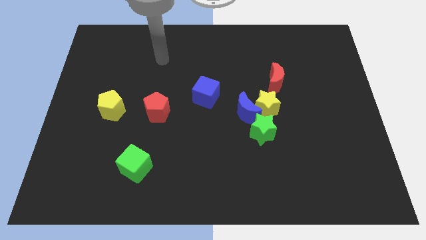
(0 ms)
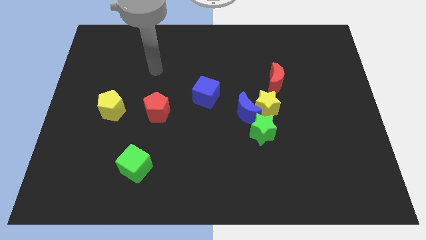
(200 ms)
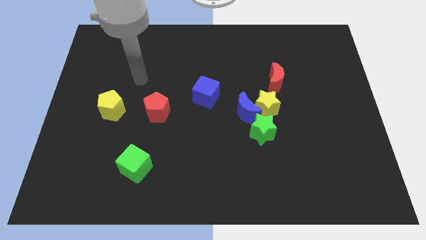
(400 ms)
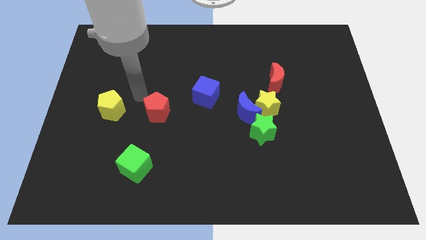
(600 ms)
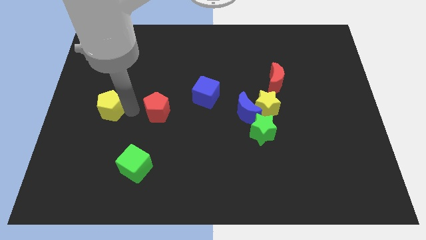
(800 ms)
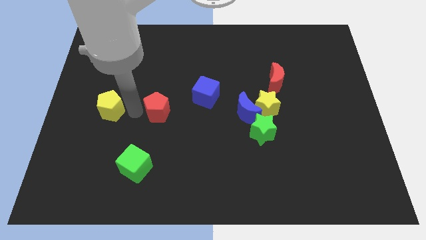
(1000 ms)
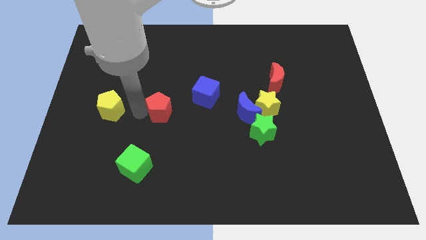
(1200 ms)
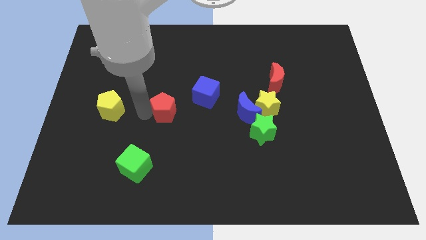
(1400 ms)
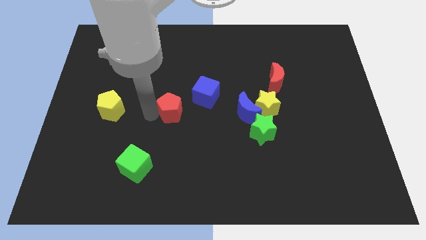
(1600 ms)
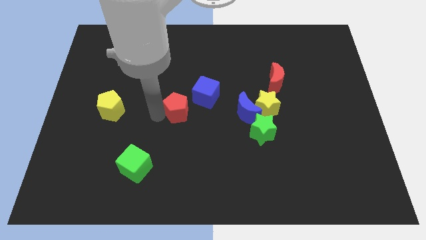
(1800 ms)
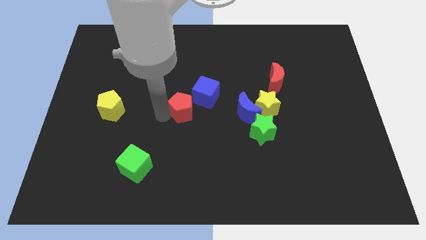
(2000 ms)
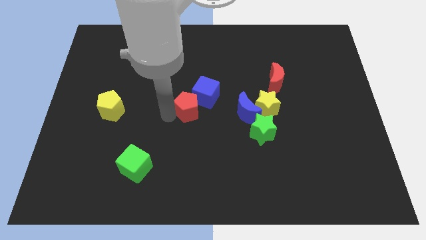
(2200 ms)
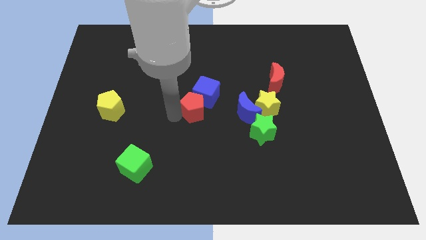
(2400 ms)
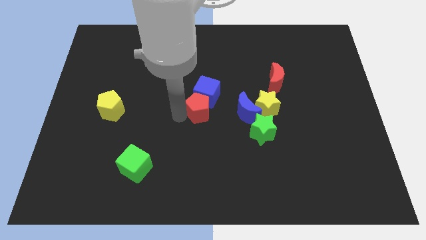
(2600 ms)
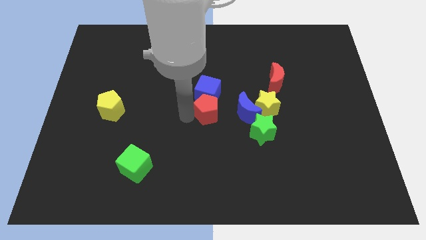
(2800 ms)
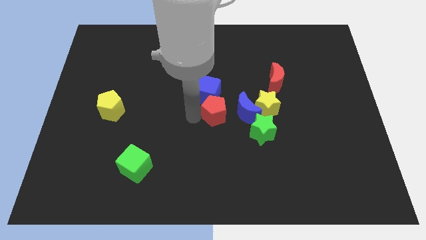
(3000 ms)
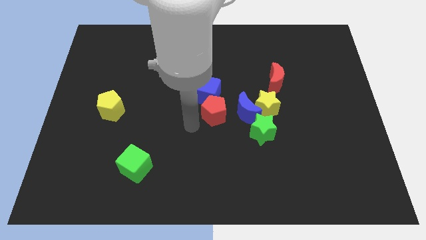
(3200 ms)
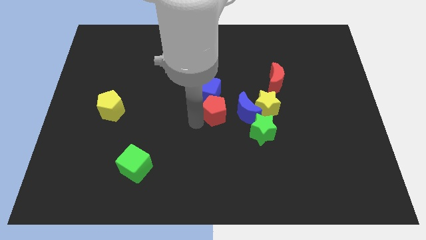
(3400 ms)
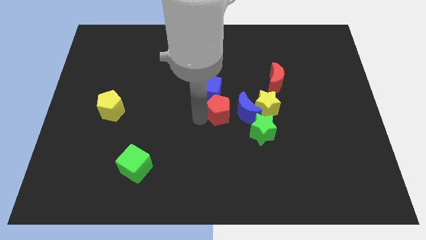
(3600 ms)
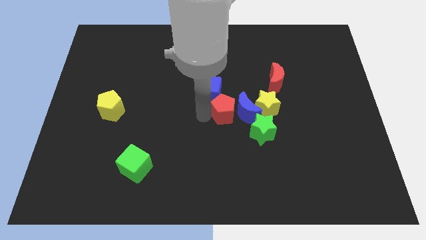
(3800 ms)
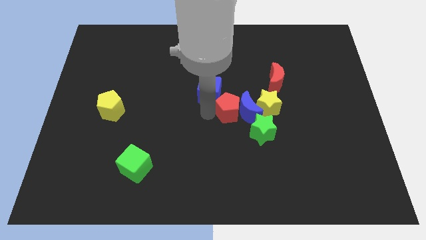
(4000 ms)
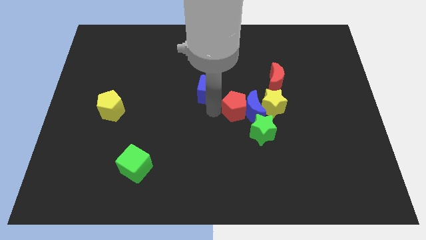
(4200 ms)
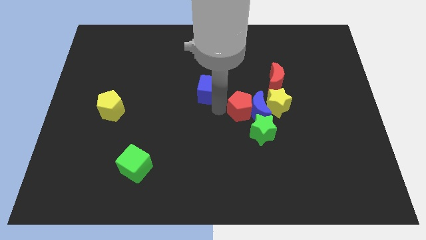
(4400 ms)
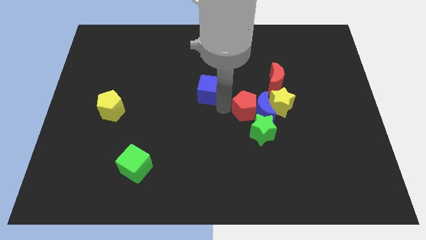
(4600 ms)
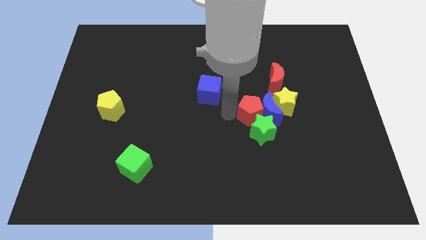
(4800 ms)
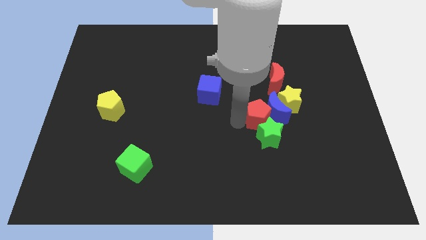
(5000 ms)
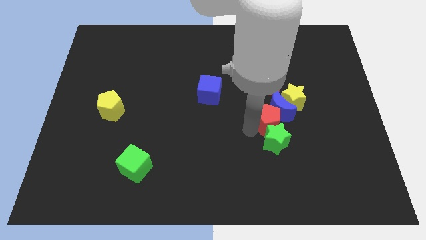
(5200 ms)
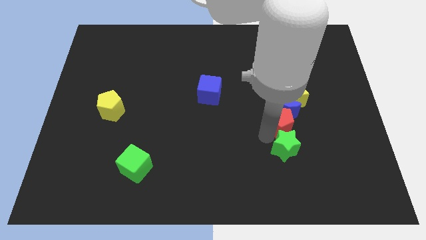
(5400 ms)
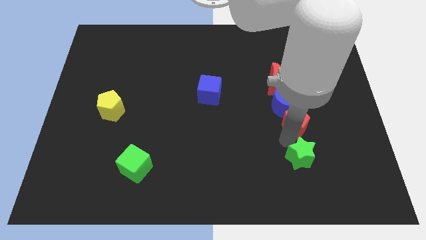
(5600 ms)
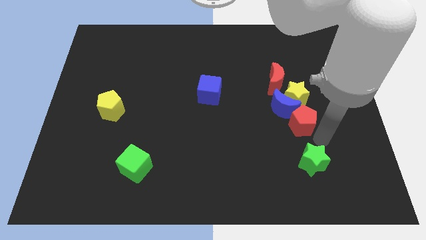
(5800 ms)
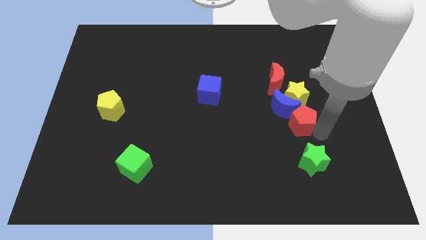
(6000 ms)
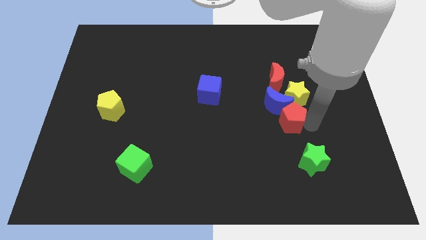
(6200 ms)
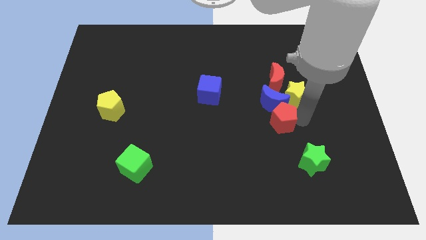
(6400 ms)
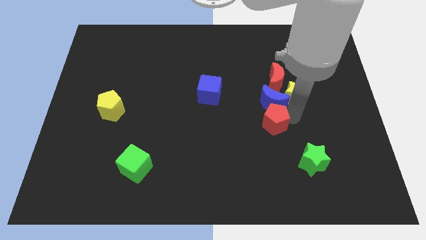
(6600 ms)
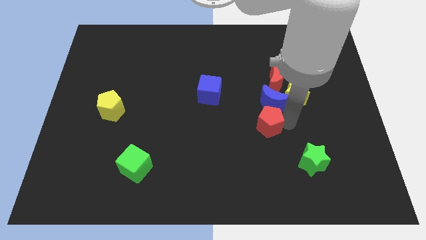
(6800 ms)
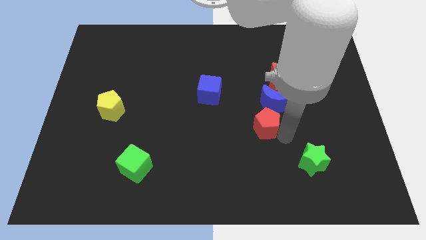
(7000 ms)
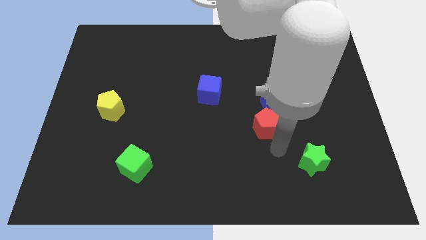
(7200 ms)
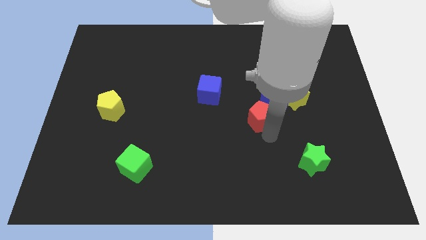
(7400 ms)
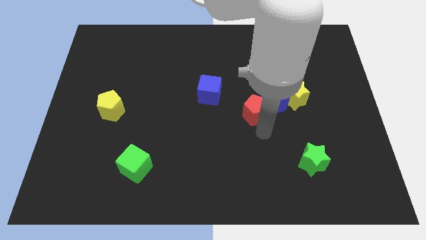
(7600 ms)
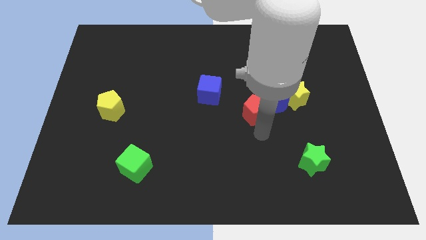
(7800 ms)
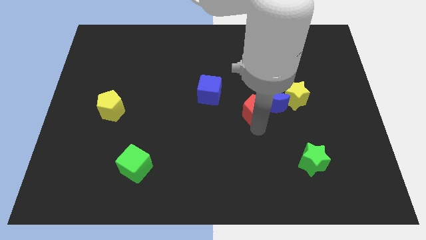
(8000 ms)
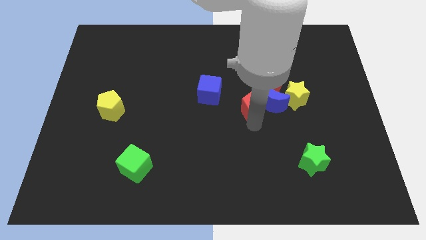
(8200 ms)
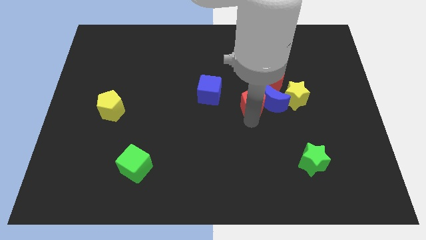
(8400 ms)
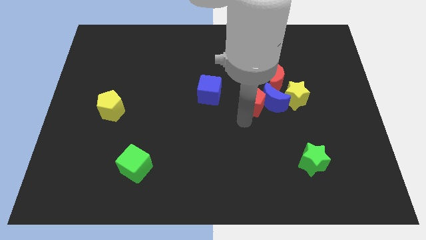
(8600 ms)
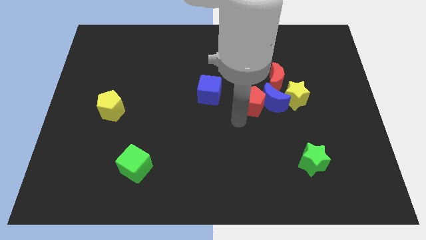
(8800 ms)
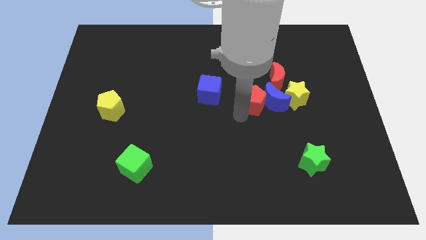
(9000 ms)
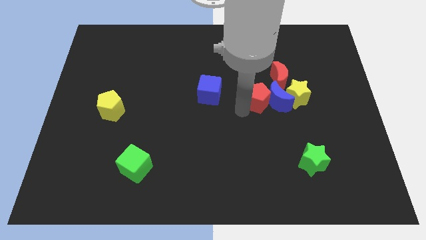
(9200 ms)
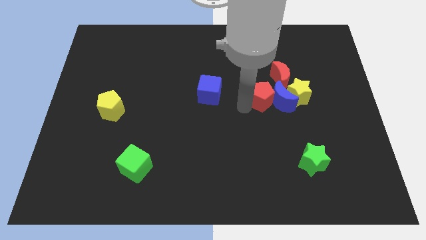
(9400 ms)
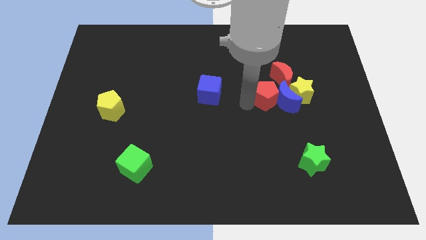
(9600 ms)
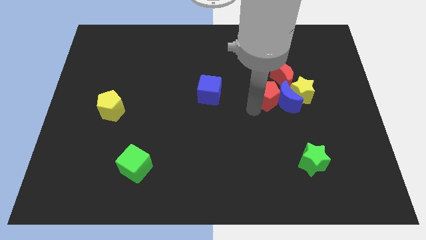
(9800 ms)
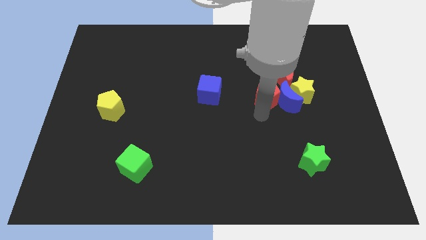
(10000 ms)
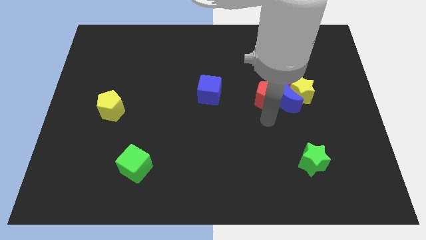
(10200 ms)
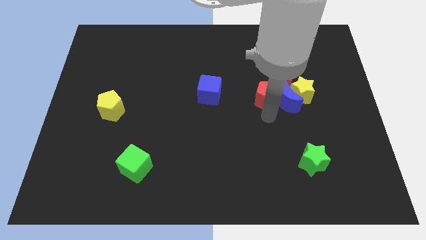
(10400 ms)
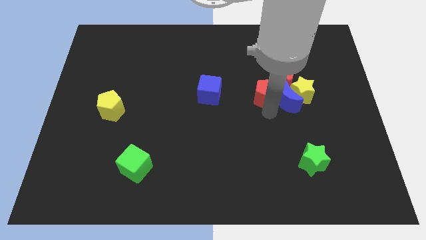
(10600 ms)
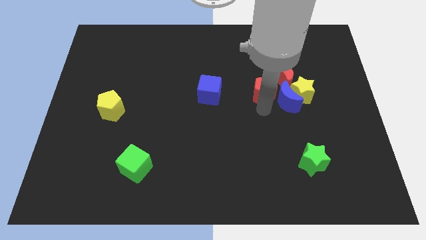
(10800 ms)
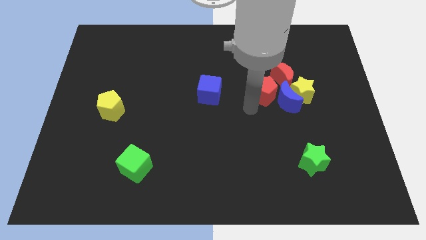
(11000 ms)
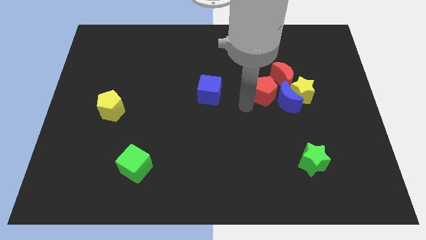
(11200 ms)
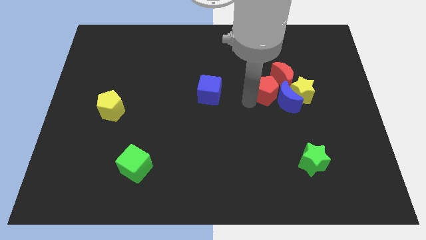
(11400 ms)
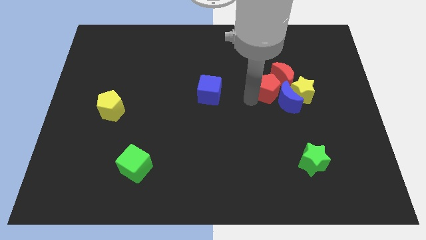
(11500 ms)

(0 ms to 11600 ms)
move the red pentagon close to the red moon

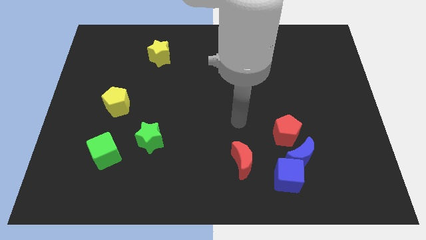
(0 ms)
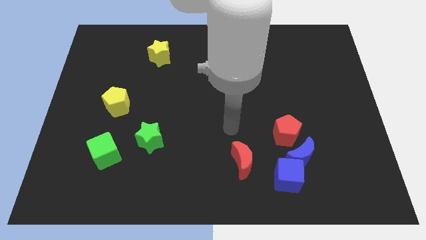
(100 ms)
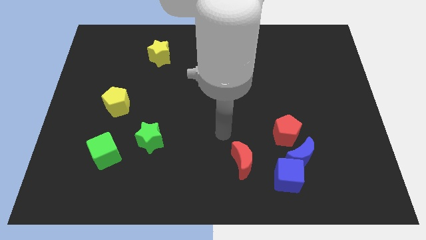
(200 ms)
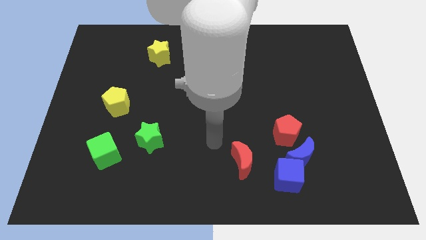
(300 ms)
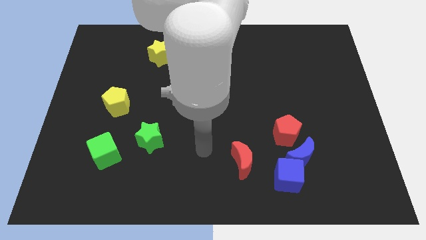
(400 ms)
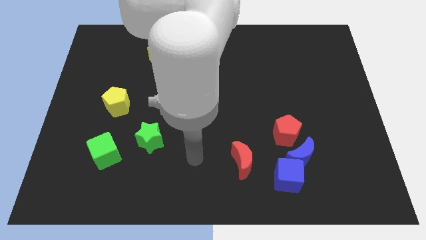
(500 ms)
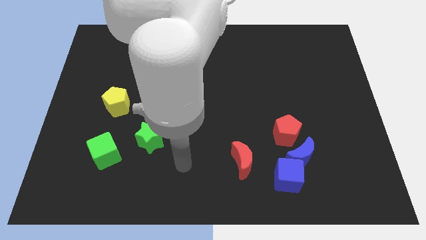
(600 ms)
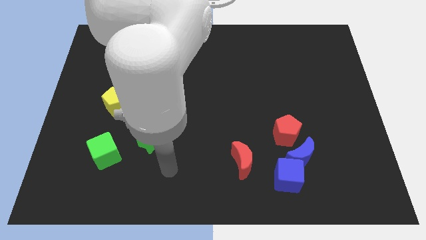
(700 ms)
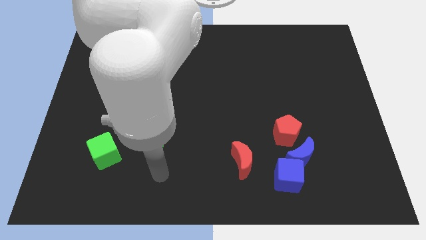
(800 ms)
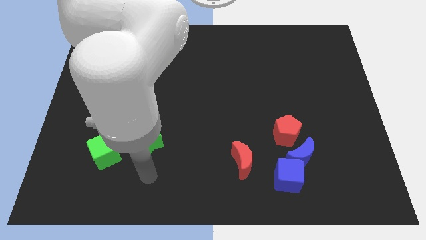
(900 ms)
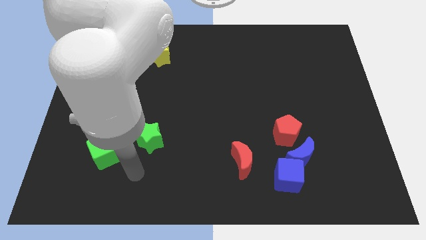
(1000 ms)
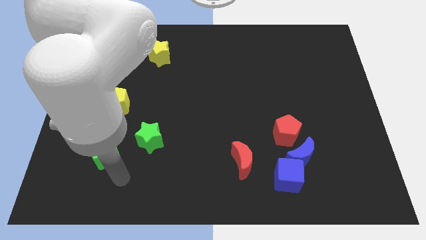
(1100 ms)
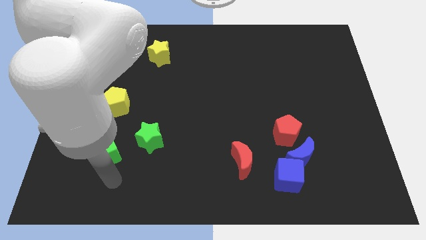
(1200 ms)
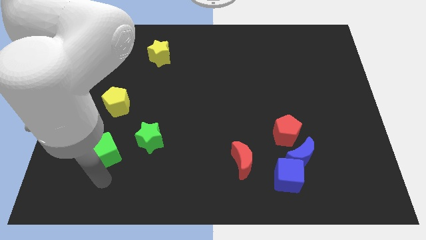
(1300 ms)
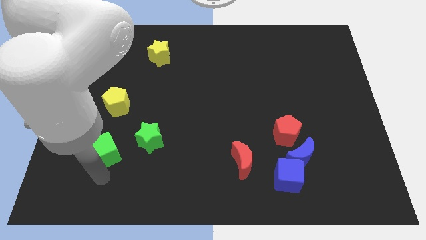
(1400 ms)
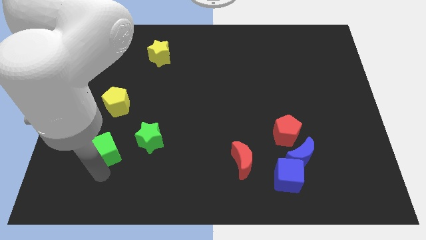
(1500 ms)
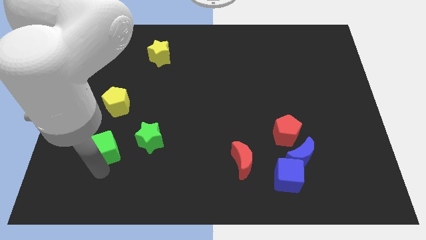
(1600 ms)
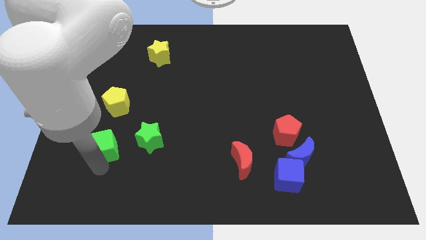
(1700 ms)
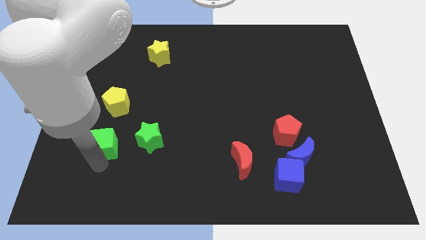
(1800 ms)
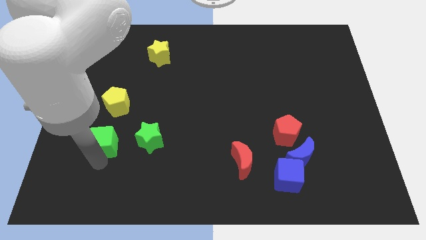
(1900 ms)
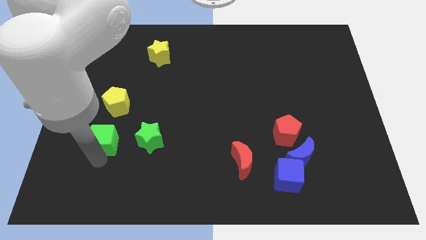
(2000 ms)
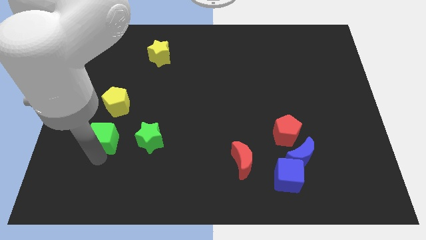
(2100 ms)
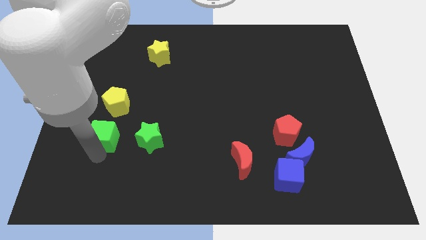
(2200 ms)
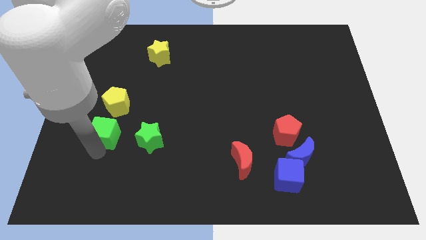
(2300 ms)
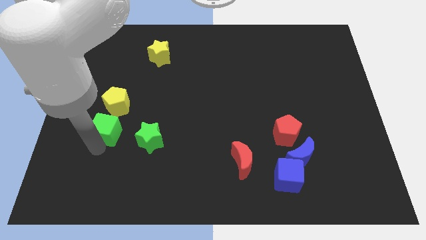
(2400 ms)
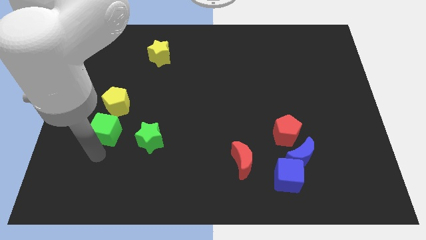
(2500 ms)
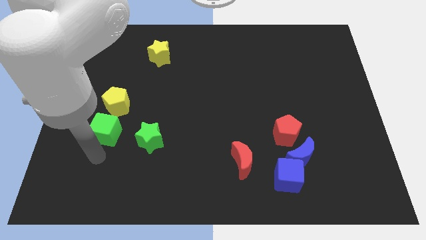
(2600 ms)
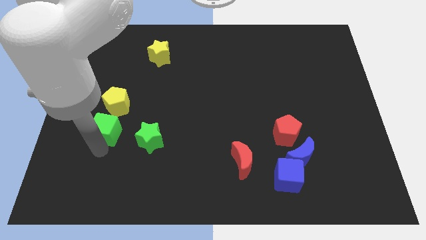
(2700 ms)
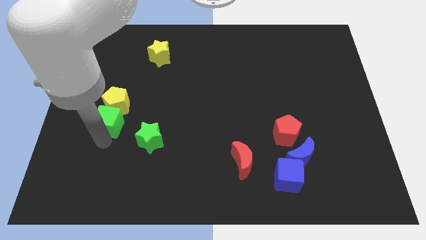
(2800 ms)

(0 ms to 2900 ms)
slide the green cube next to the yellow pentagon
